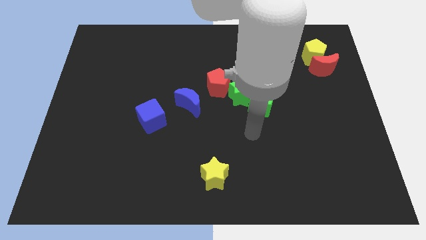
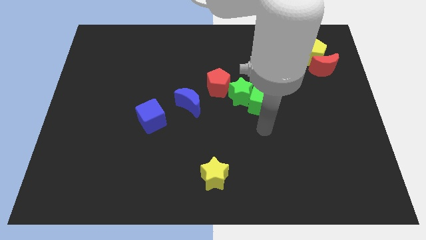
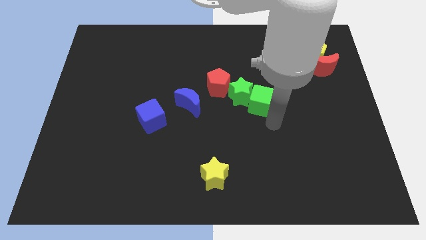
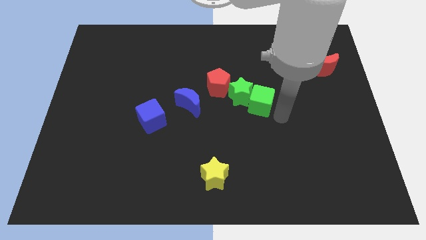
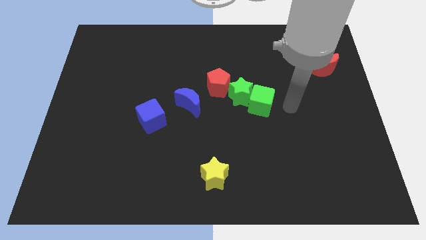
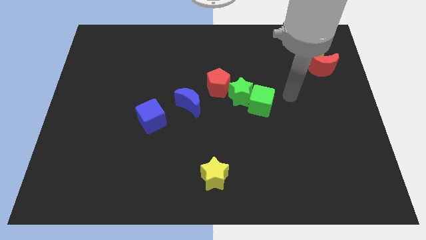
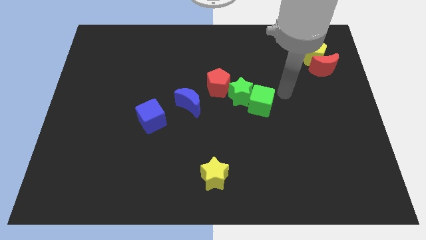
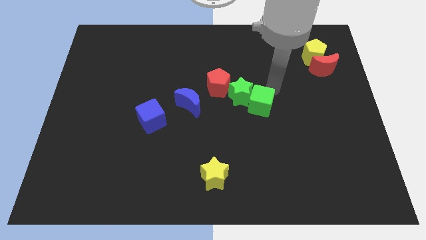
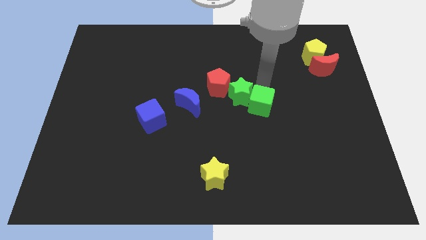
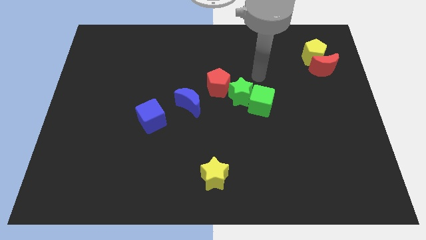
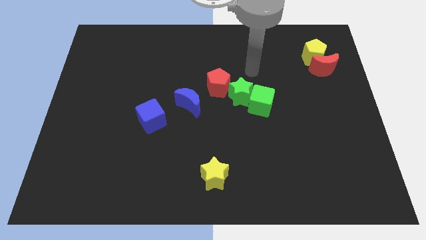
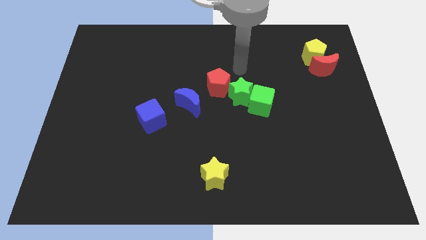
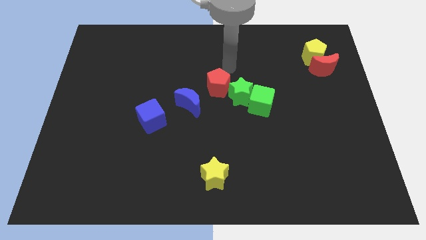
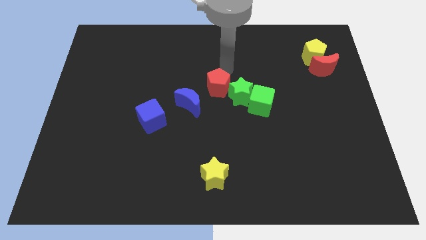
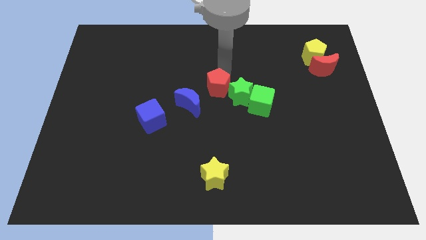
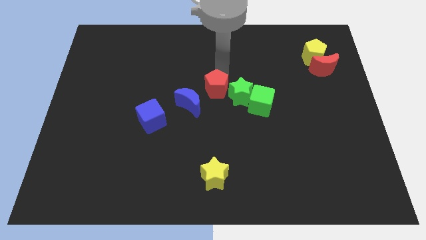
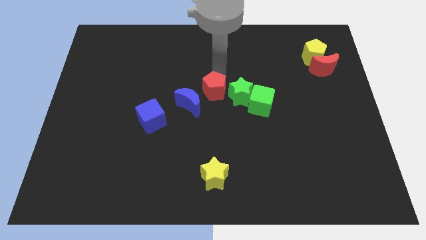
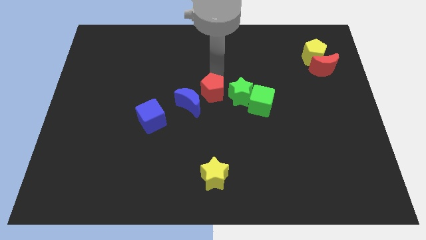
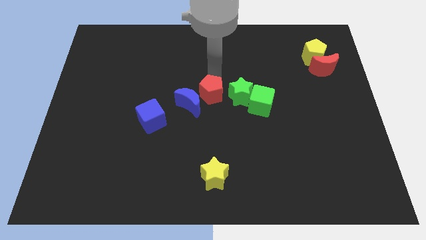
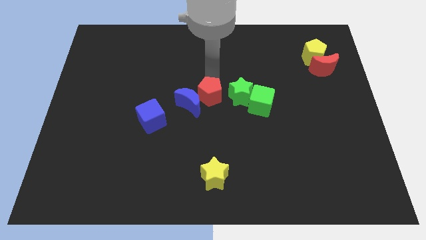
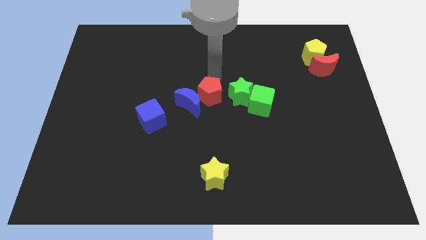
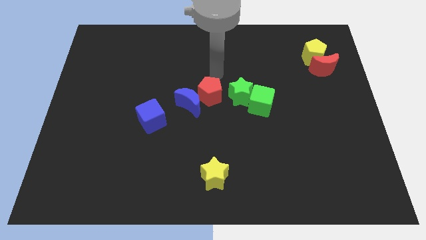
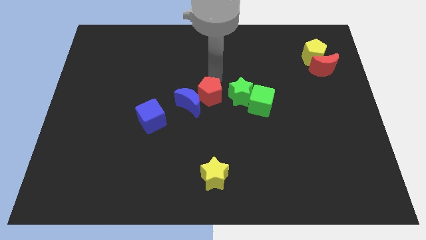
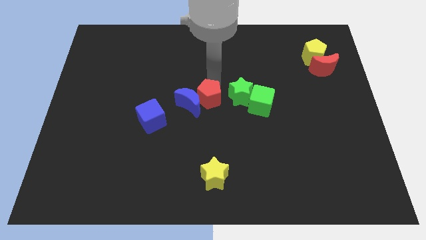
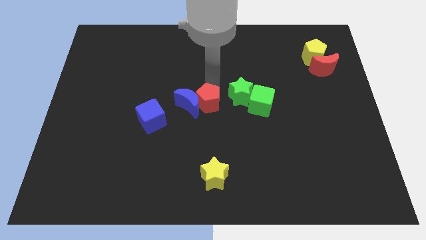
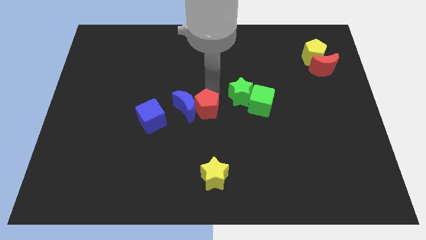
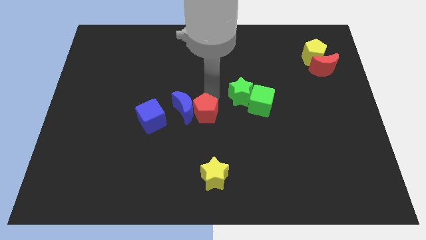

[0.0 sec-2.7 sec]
slightly slide the red pentagon downwards and then left

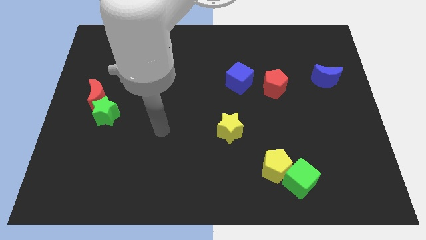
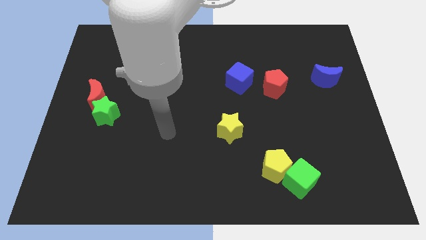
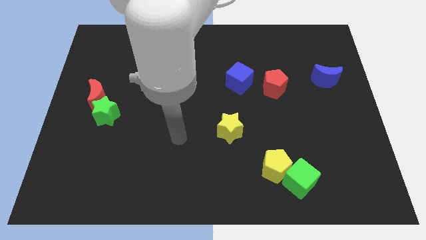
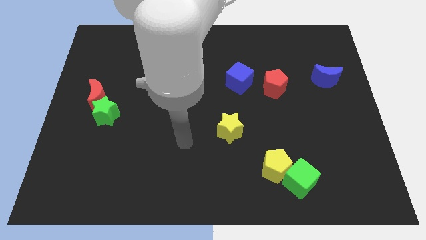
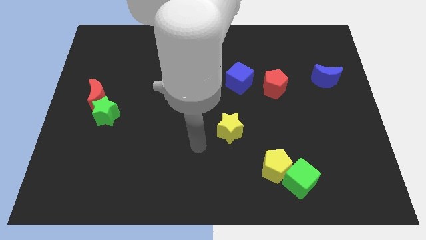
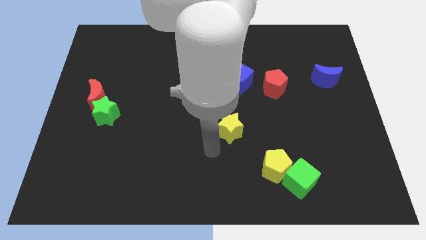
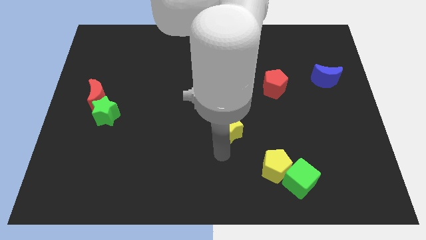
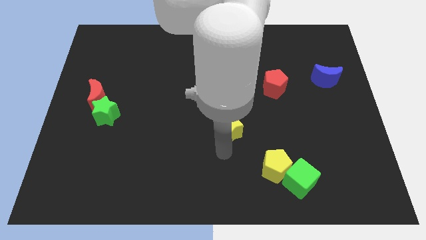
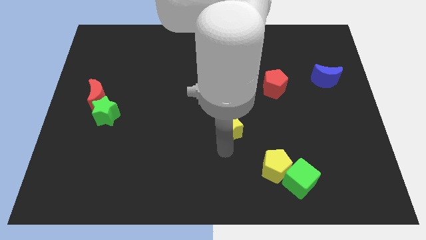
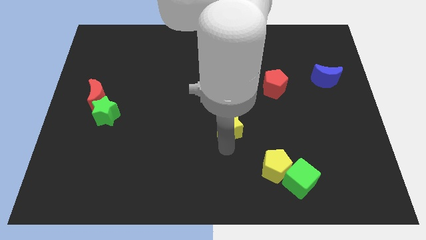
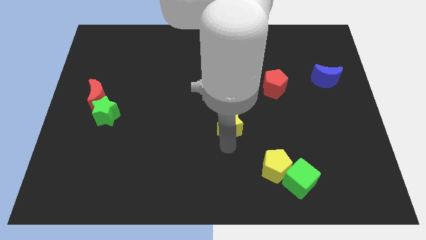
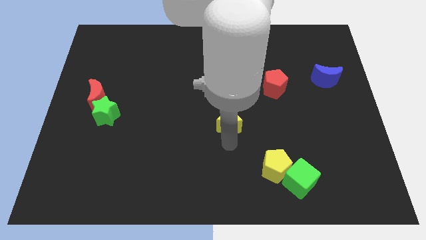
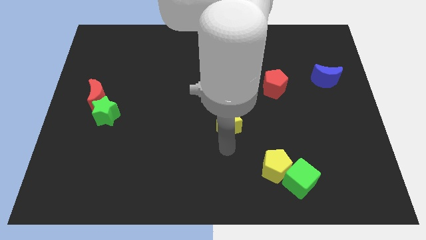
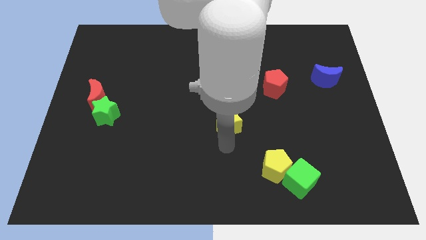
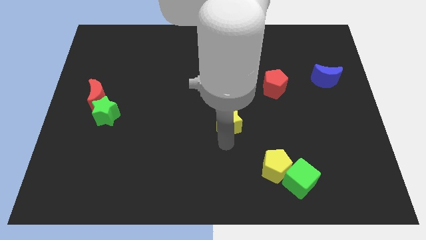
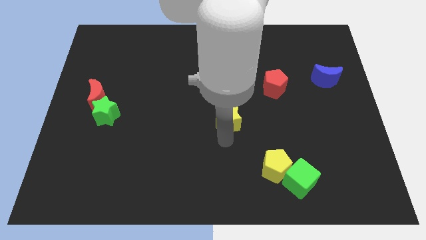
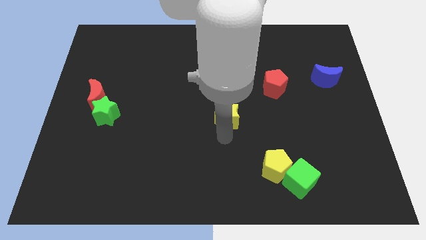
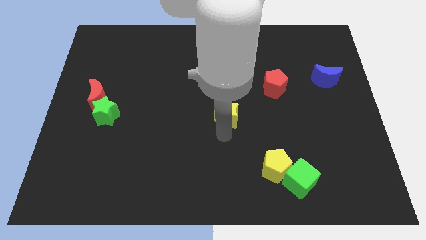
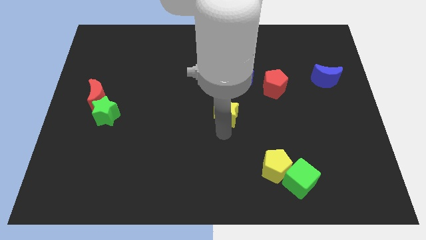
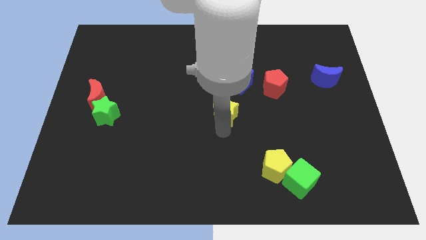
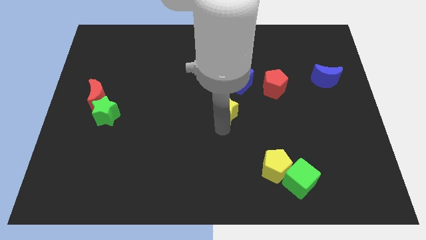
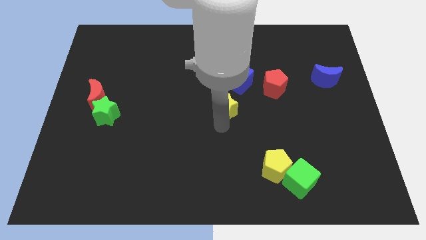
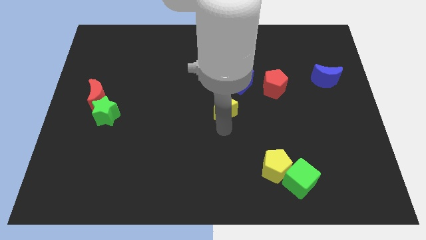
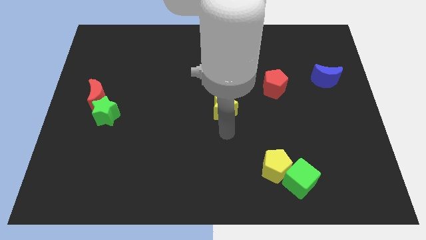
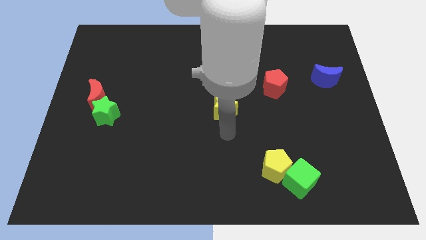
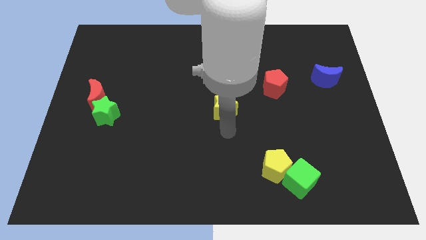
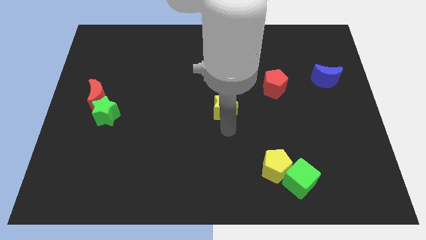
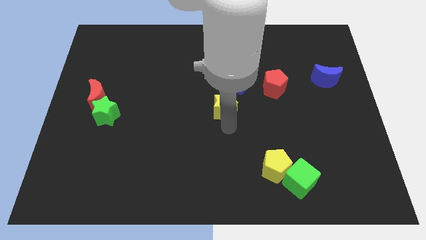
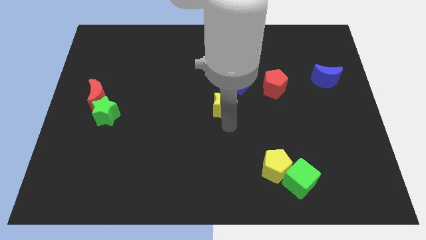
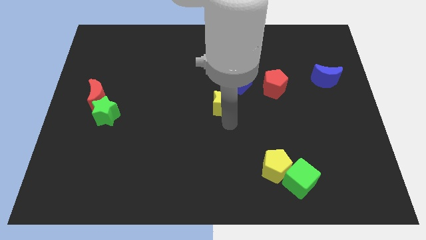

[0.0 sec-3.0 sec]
move the yellow star upwards a bit

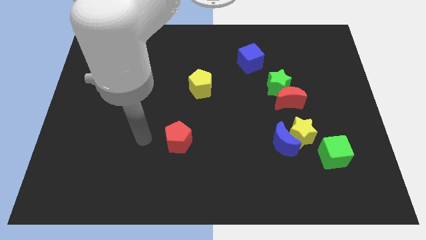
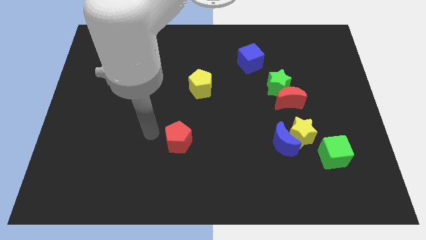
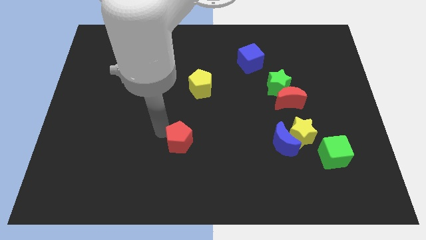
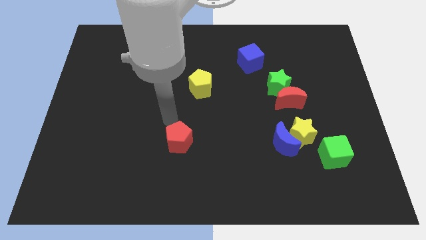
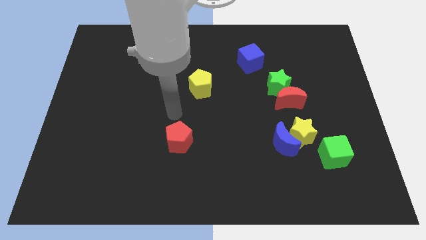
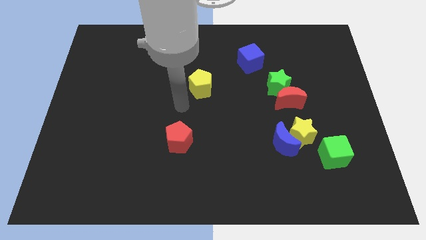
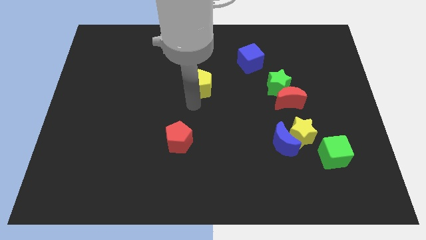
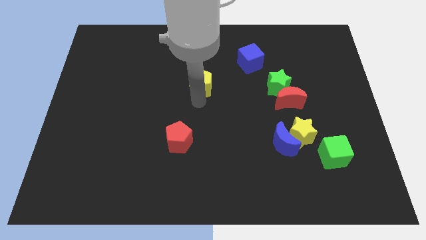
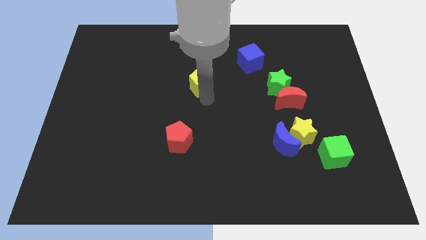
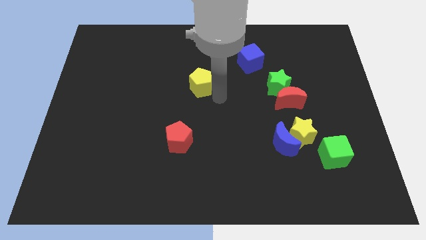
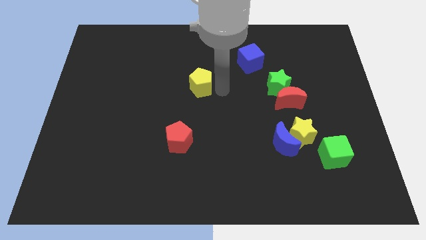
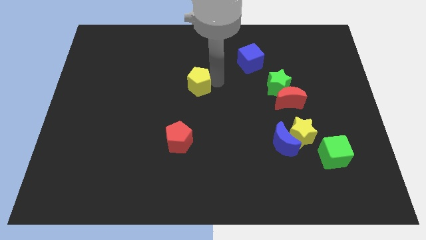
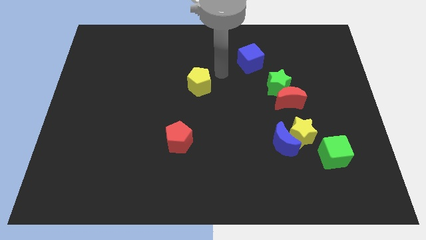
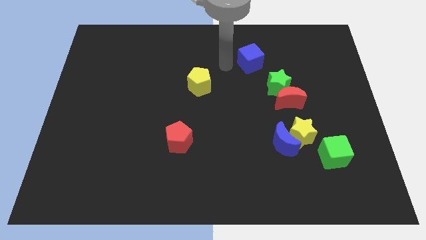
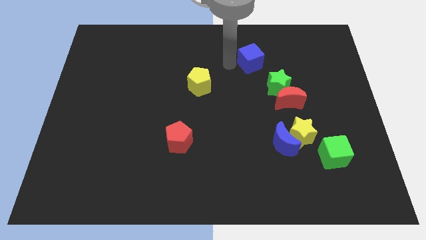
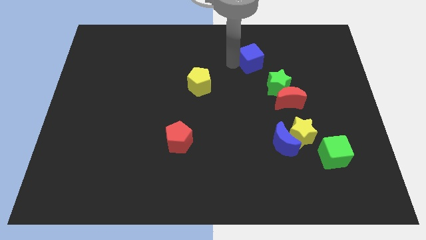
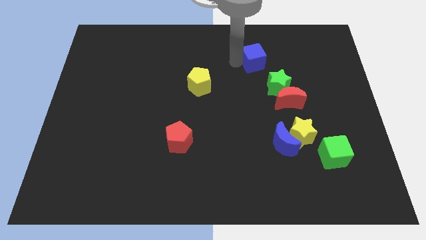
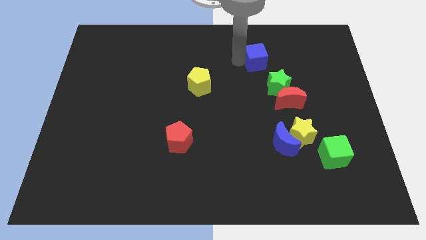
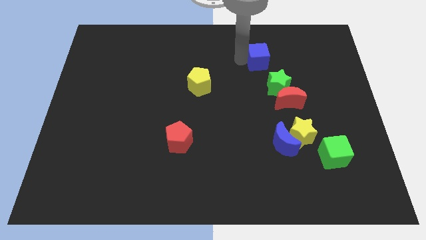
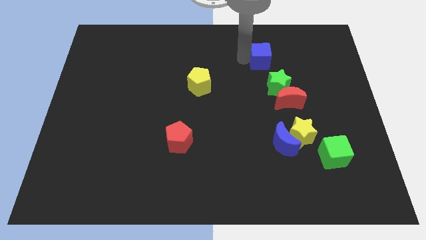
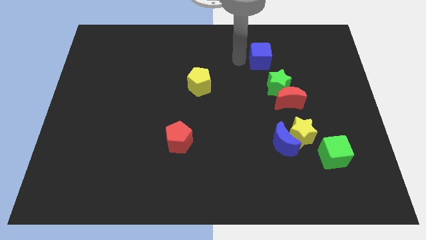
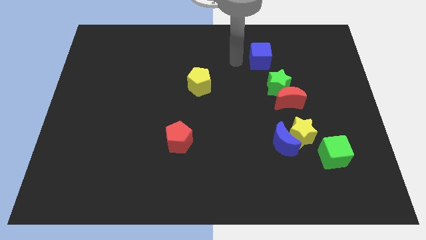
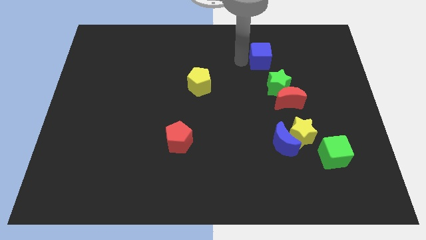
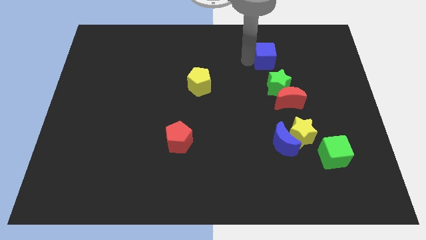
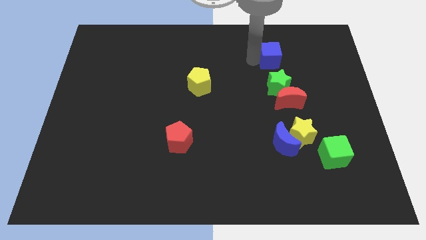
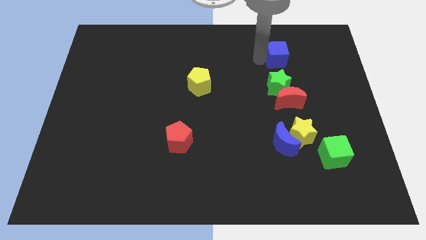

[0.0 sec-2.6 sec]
slide the blue cube right a little
